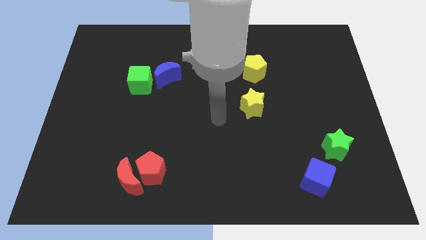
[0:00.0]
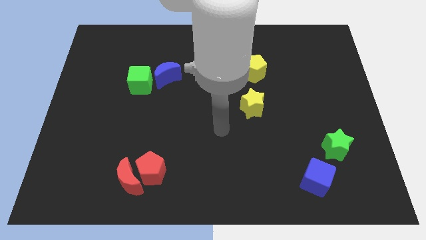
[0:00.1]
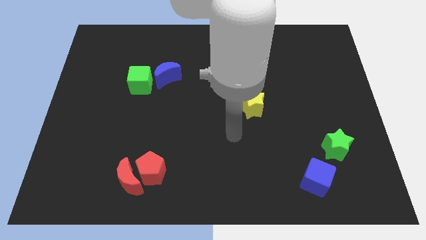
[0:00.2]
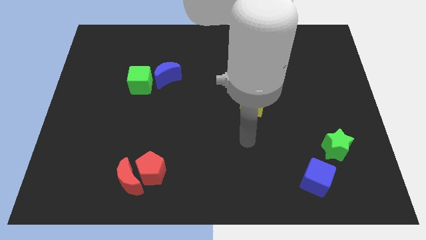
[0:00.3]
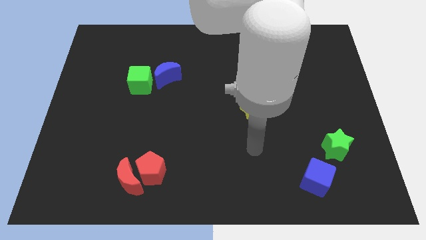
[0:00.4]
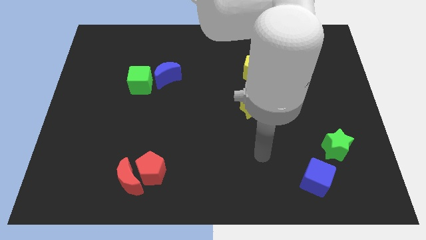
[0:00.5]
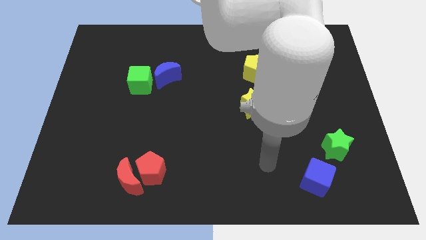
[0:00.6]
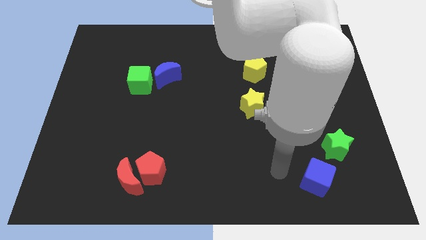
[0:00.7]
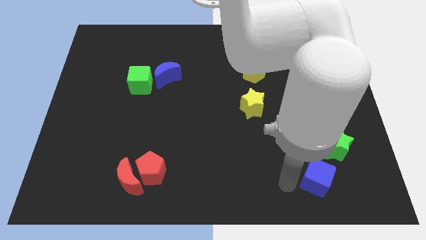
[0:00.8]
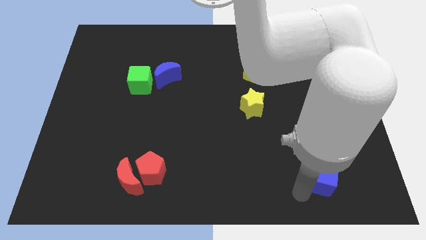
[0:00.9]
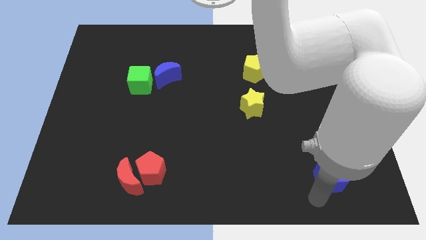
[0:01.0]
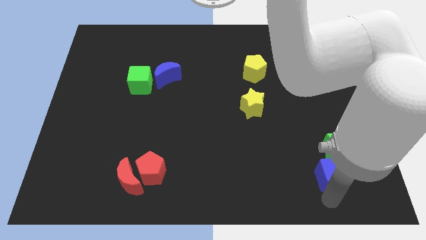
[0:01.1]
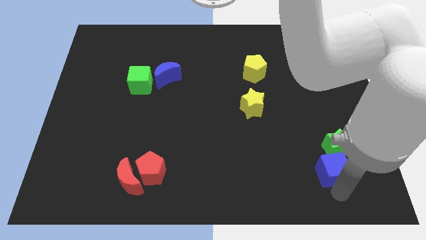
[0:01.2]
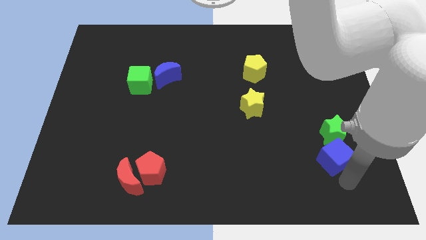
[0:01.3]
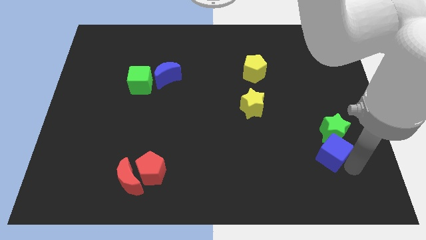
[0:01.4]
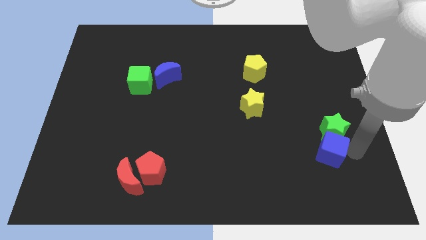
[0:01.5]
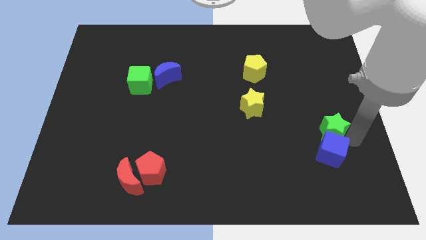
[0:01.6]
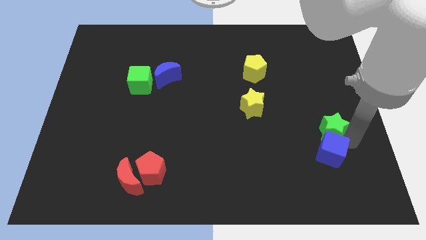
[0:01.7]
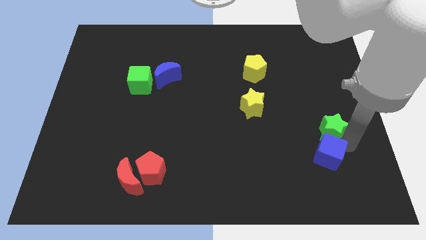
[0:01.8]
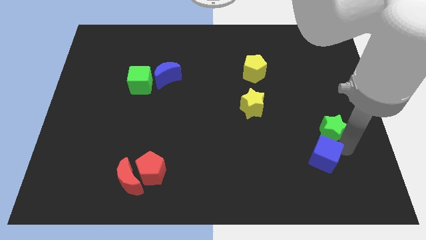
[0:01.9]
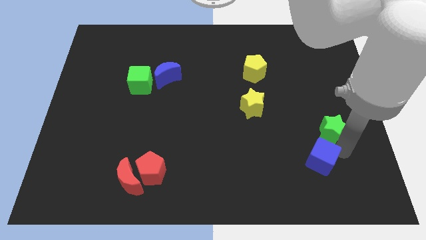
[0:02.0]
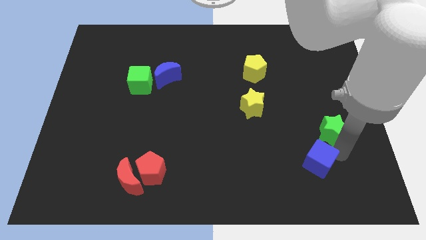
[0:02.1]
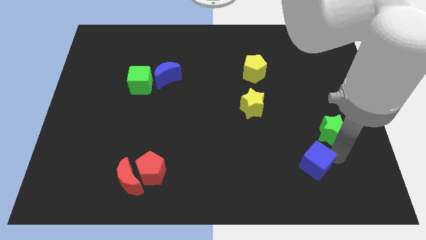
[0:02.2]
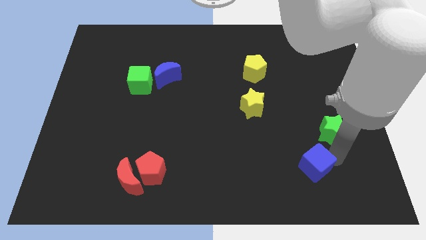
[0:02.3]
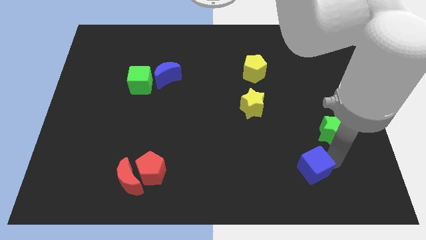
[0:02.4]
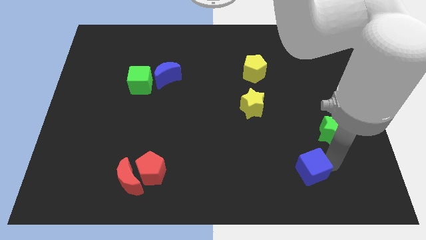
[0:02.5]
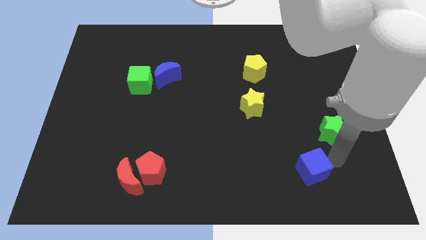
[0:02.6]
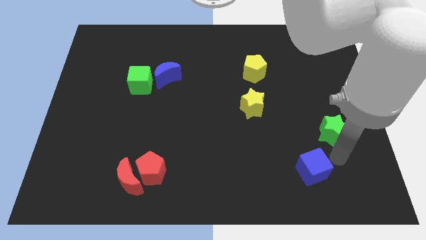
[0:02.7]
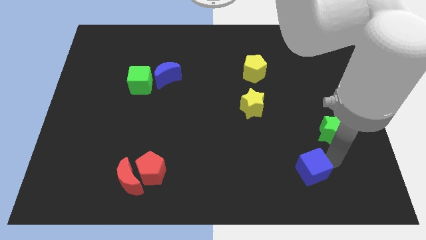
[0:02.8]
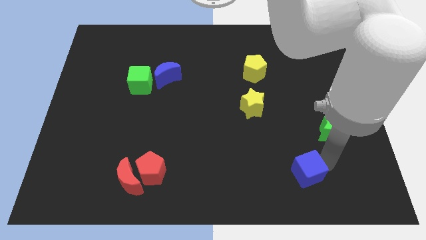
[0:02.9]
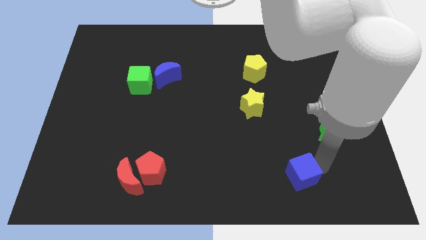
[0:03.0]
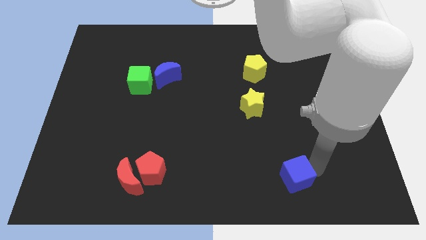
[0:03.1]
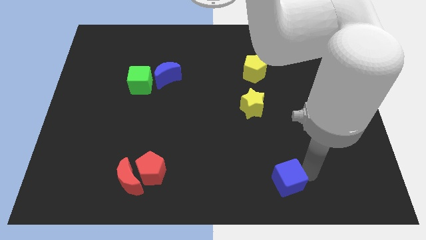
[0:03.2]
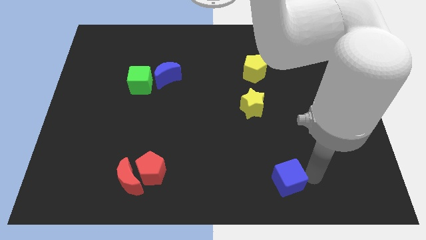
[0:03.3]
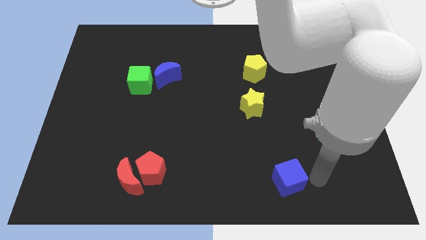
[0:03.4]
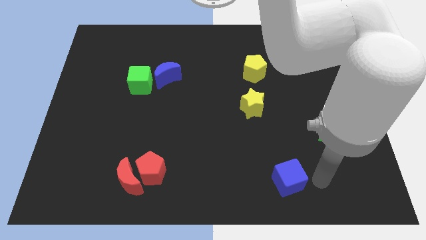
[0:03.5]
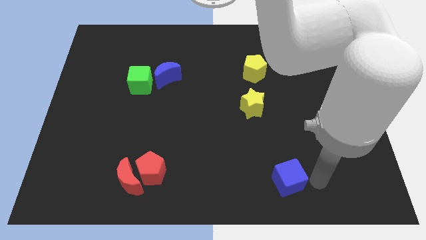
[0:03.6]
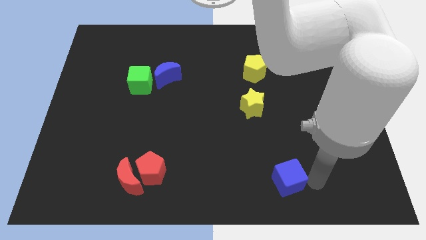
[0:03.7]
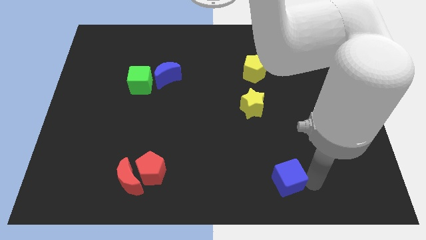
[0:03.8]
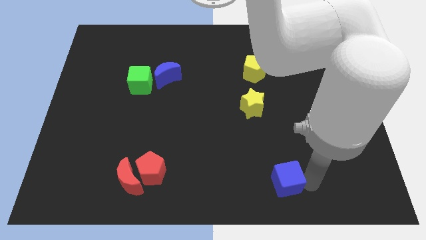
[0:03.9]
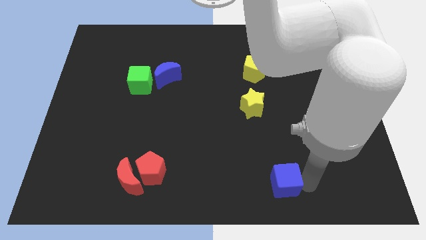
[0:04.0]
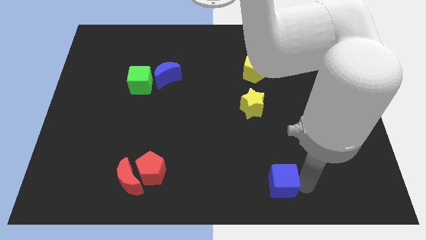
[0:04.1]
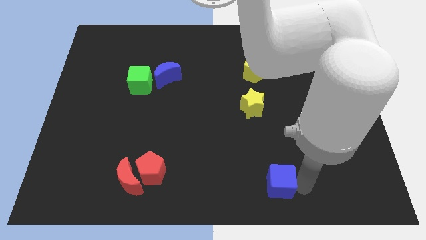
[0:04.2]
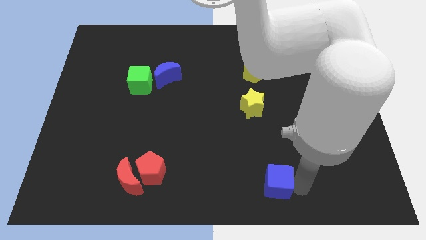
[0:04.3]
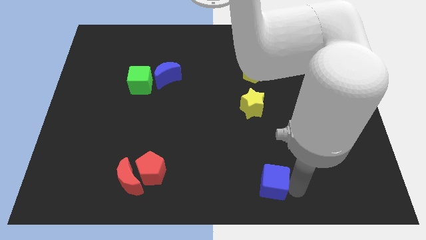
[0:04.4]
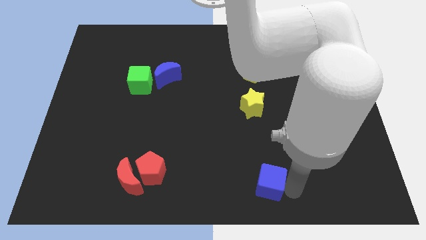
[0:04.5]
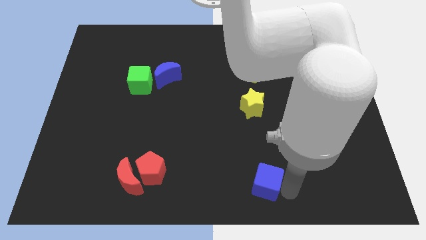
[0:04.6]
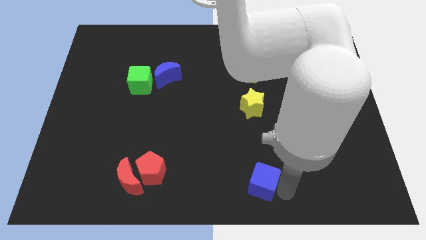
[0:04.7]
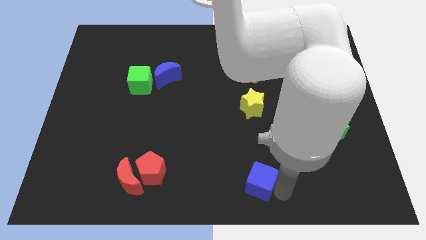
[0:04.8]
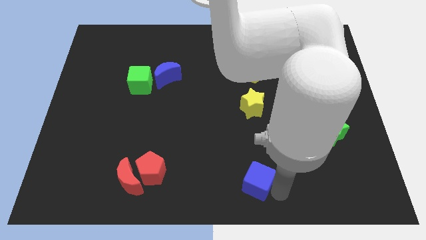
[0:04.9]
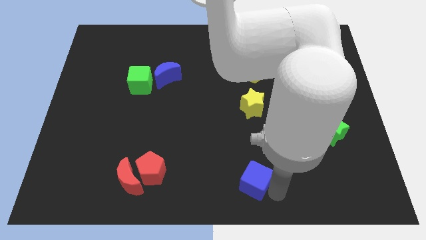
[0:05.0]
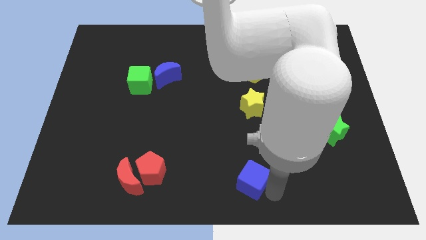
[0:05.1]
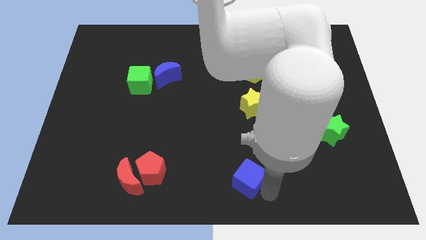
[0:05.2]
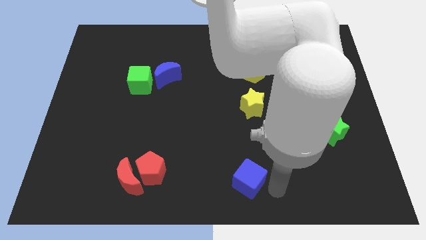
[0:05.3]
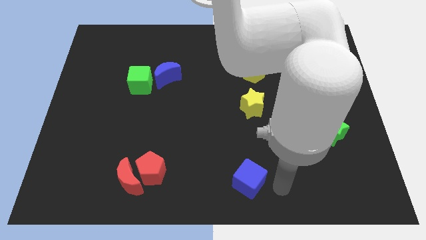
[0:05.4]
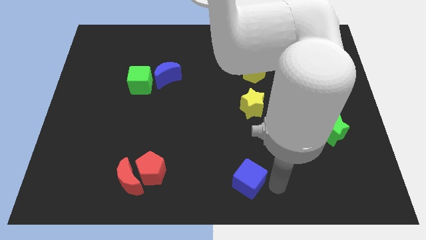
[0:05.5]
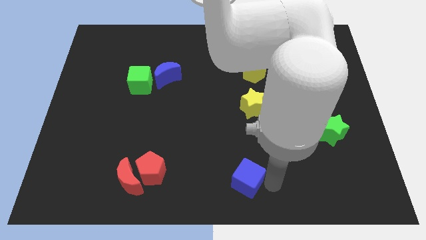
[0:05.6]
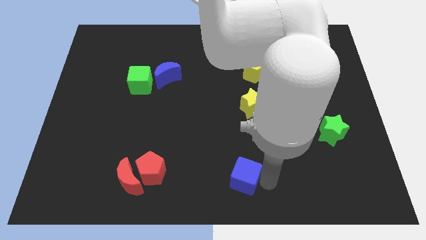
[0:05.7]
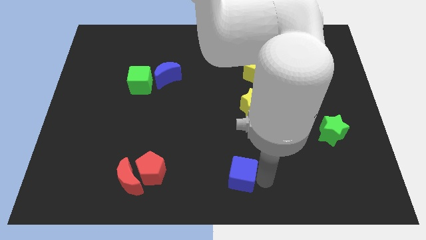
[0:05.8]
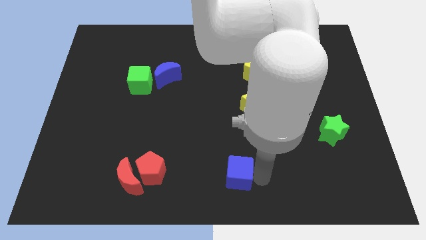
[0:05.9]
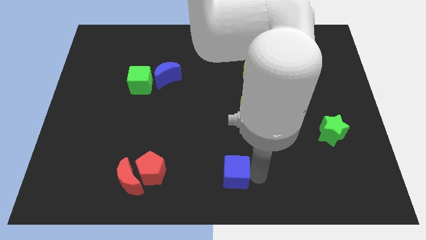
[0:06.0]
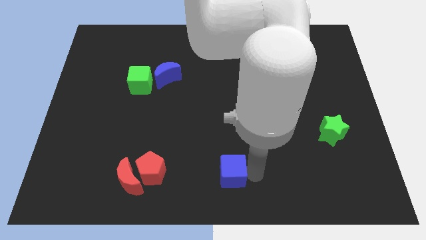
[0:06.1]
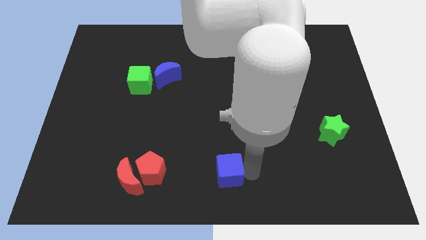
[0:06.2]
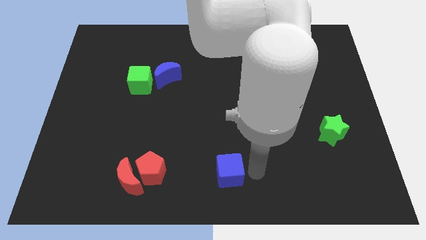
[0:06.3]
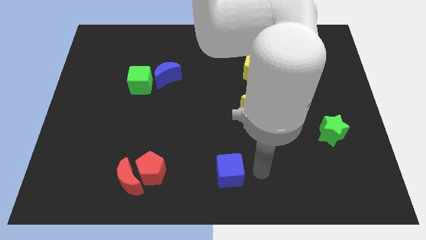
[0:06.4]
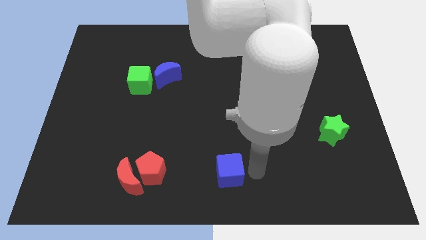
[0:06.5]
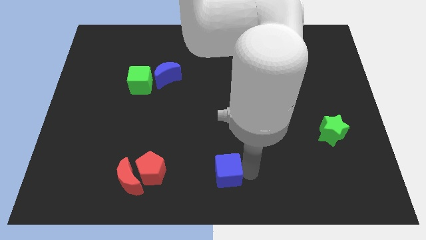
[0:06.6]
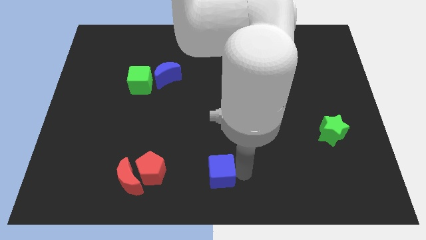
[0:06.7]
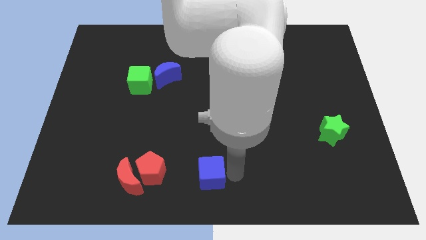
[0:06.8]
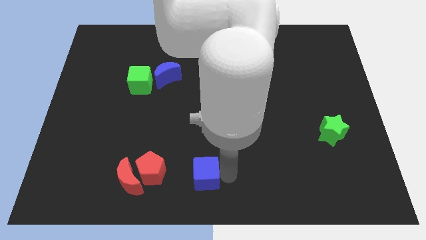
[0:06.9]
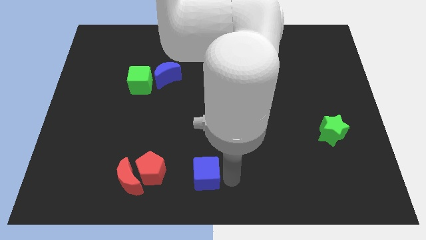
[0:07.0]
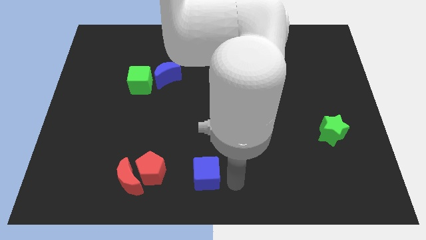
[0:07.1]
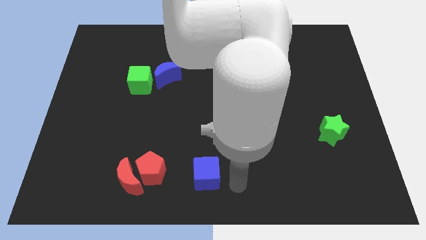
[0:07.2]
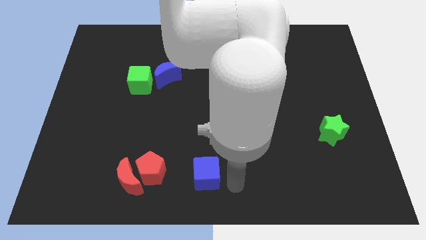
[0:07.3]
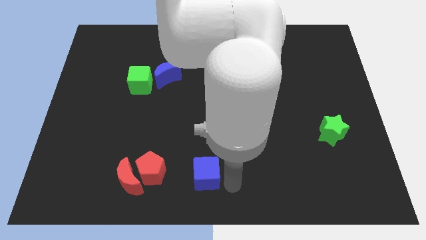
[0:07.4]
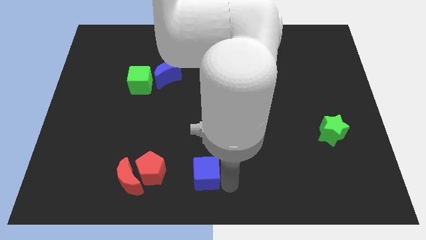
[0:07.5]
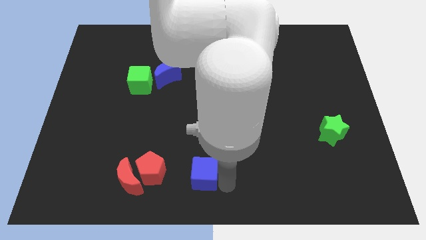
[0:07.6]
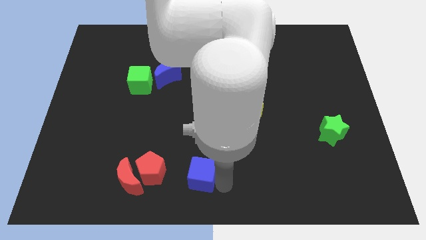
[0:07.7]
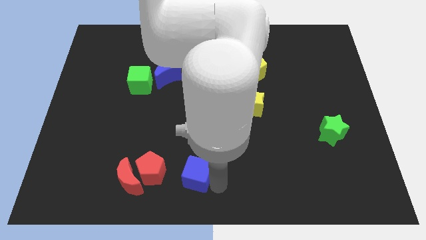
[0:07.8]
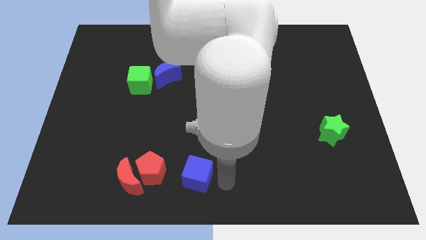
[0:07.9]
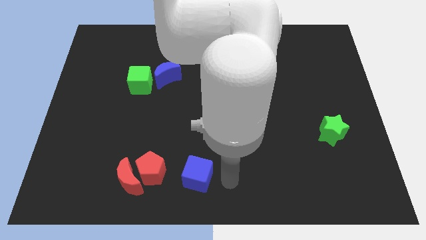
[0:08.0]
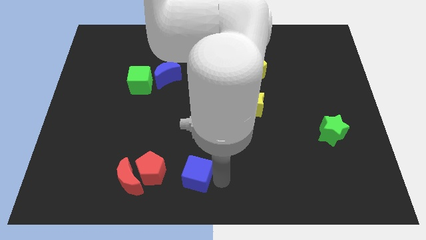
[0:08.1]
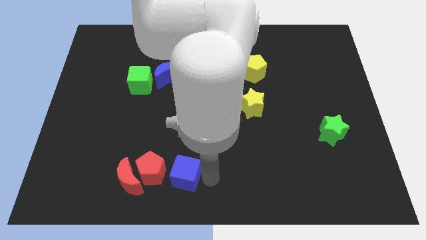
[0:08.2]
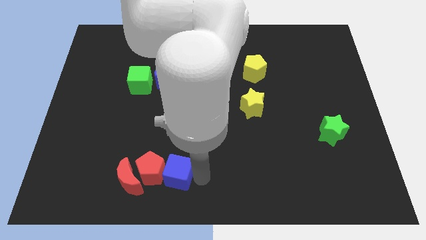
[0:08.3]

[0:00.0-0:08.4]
slide the blue cube towards the red pentagon
